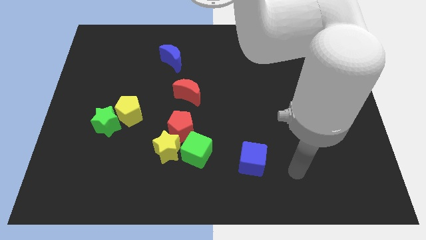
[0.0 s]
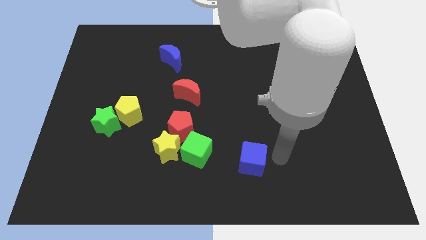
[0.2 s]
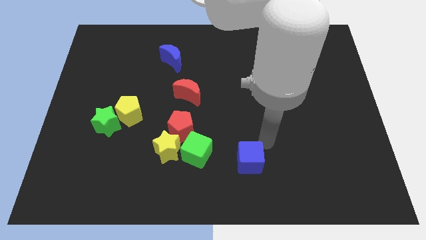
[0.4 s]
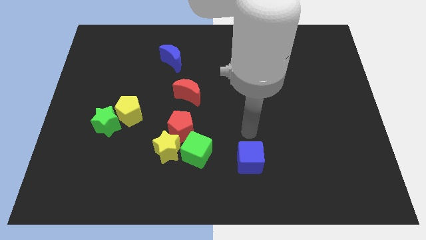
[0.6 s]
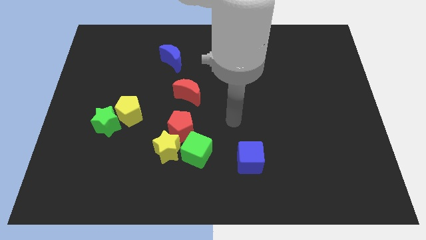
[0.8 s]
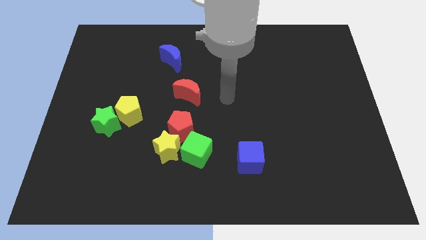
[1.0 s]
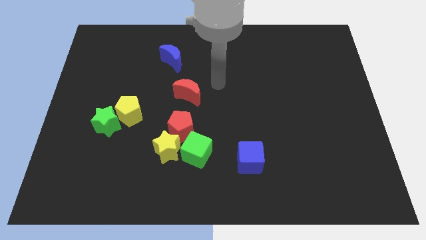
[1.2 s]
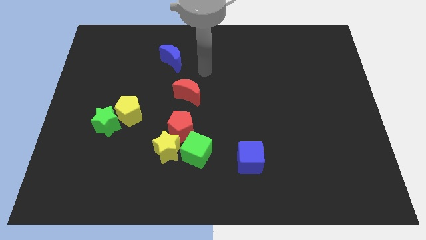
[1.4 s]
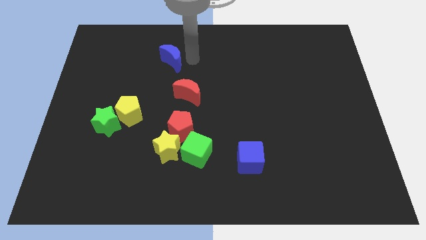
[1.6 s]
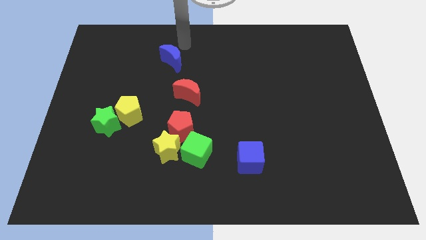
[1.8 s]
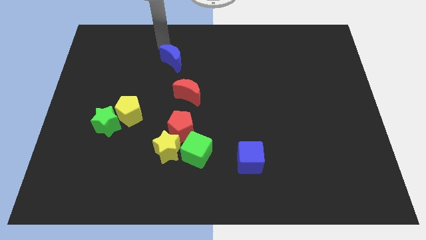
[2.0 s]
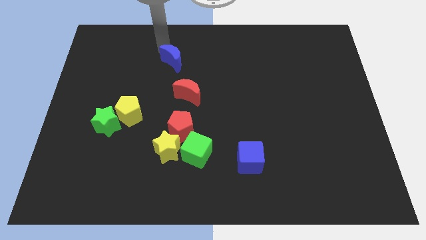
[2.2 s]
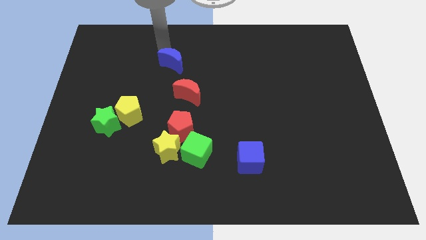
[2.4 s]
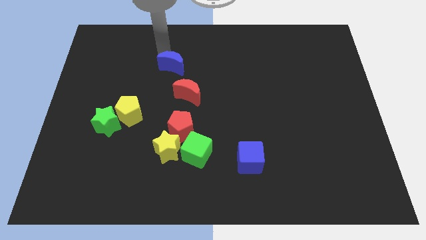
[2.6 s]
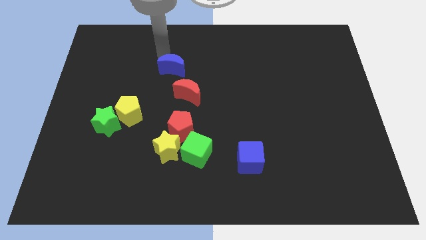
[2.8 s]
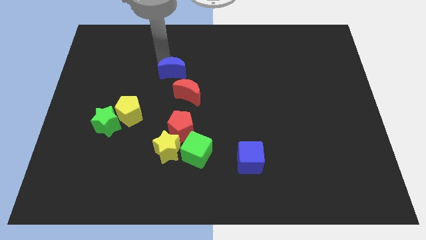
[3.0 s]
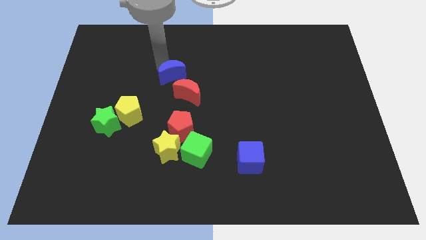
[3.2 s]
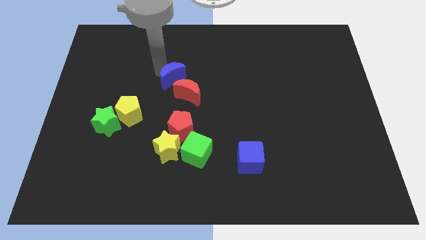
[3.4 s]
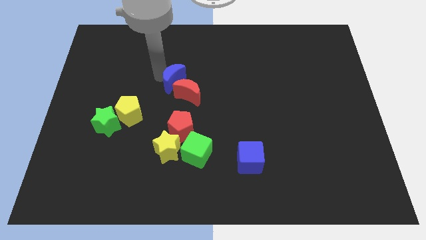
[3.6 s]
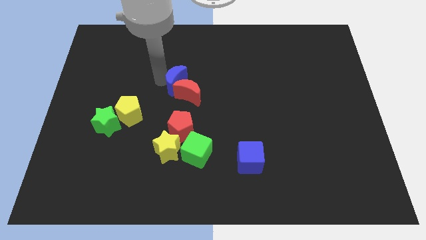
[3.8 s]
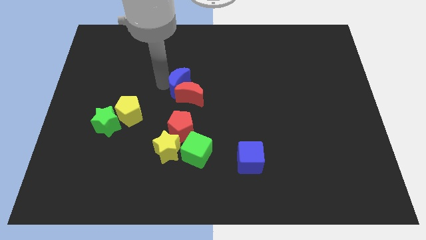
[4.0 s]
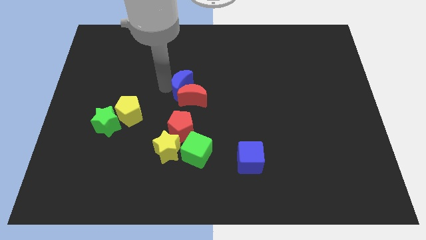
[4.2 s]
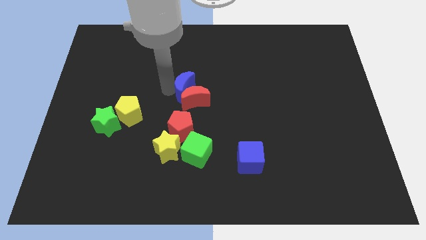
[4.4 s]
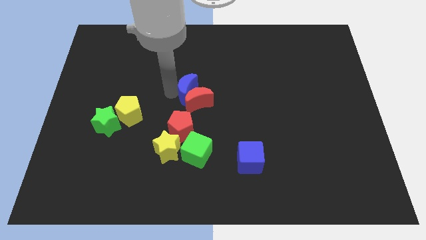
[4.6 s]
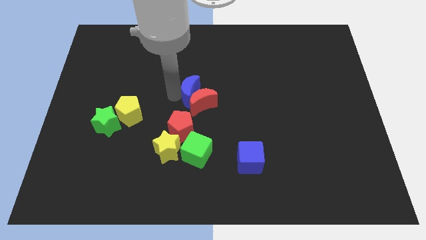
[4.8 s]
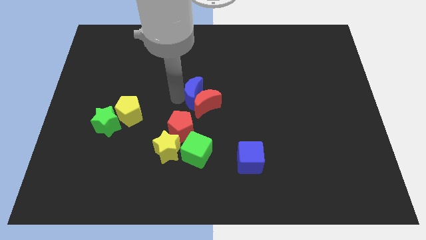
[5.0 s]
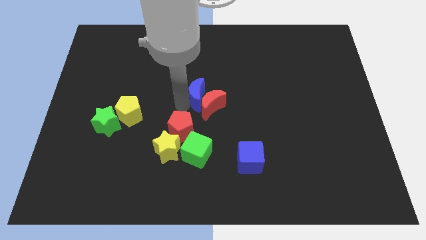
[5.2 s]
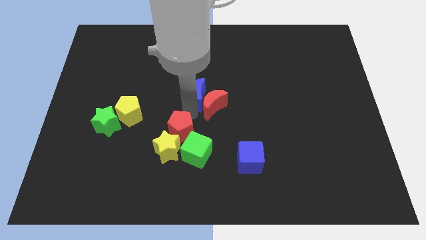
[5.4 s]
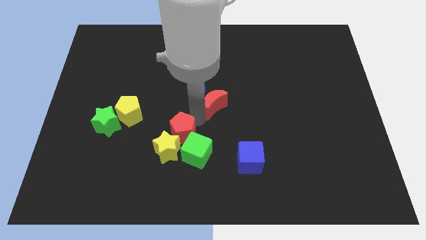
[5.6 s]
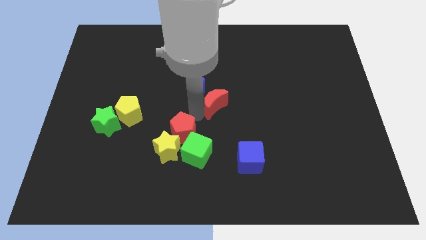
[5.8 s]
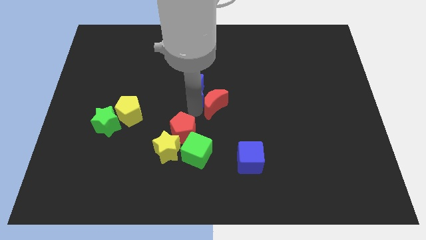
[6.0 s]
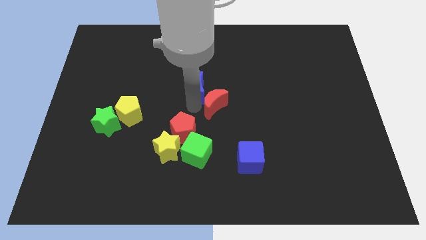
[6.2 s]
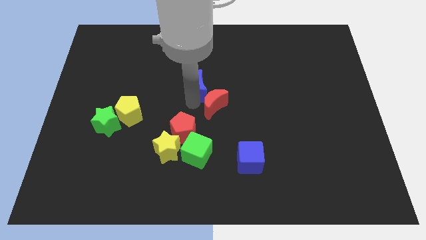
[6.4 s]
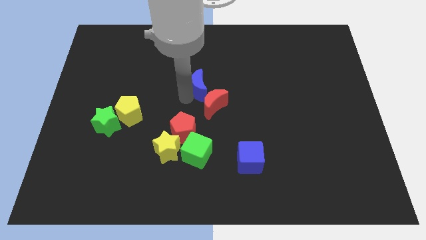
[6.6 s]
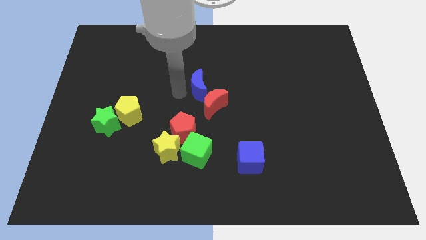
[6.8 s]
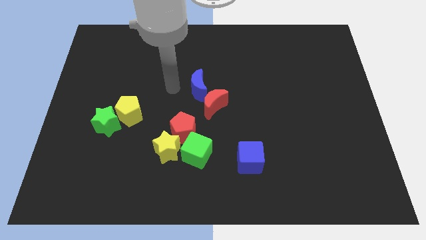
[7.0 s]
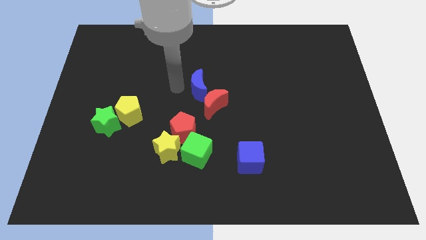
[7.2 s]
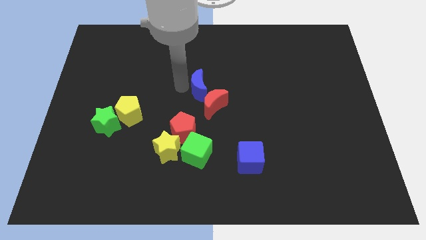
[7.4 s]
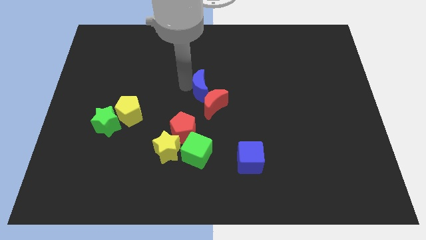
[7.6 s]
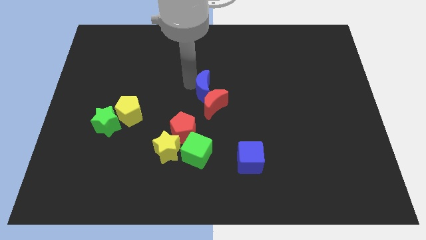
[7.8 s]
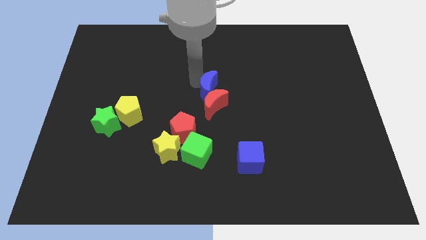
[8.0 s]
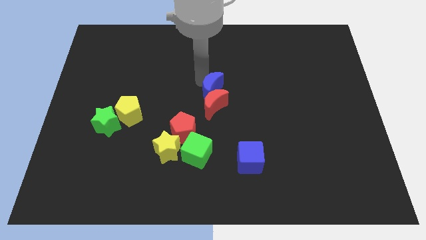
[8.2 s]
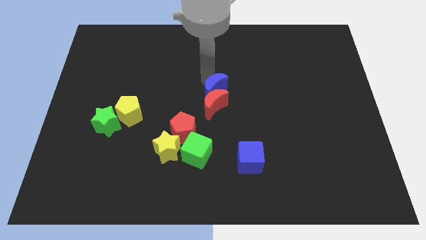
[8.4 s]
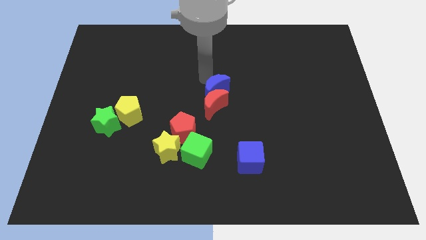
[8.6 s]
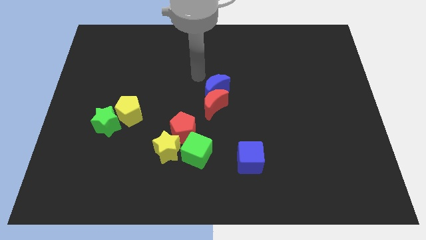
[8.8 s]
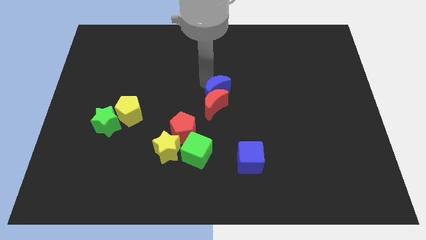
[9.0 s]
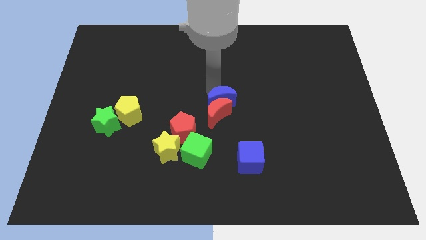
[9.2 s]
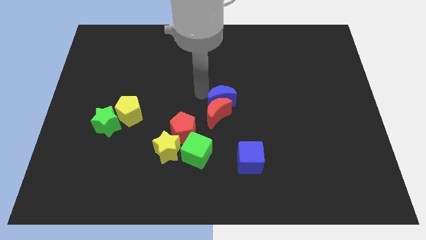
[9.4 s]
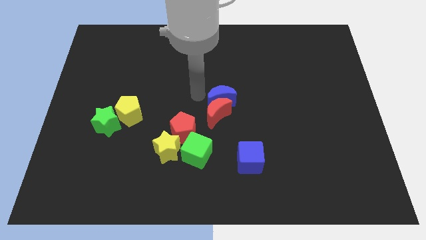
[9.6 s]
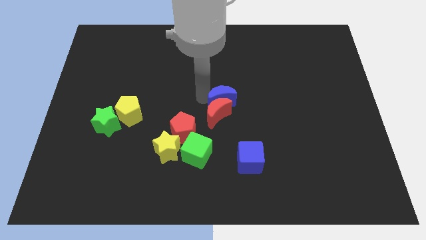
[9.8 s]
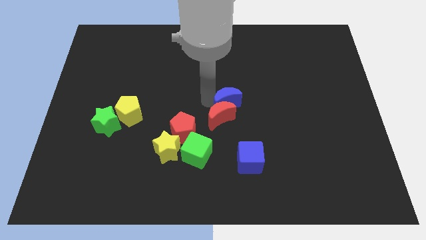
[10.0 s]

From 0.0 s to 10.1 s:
slide the blue moon downwards and right

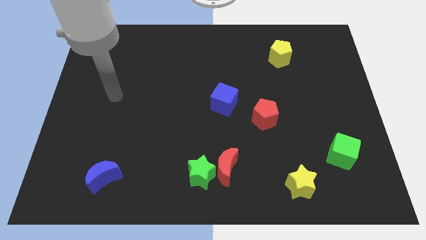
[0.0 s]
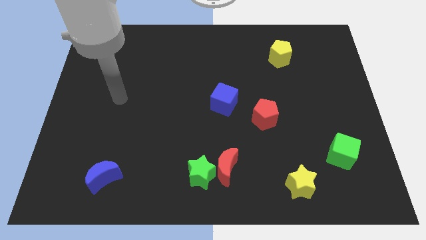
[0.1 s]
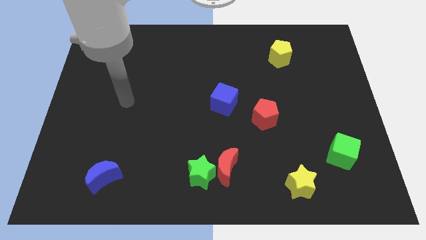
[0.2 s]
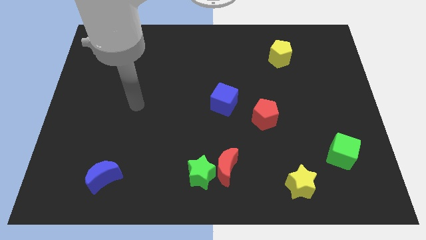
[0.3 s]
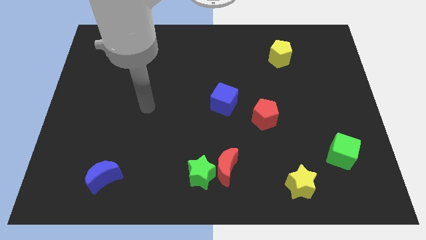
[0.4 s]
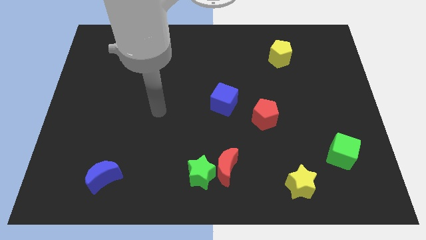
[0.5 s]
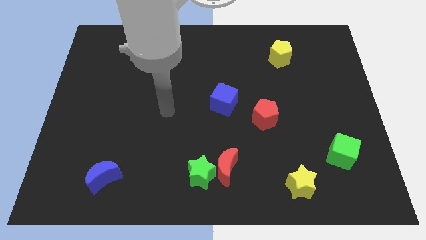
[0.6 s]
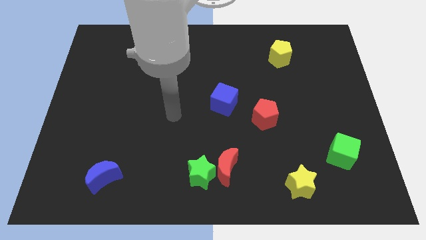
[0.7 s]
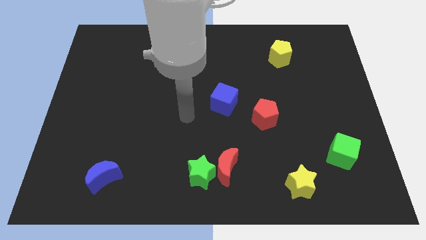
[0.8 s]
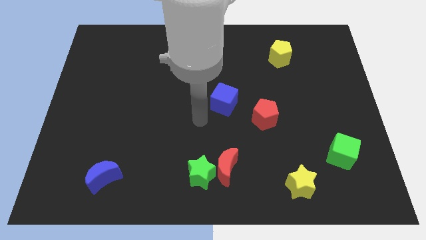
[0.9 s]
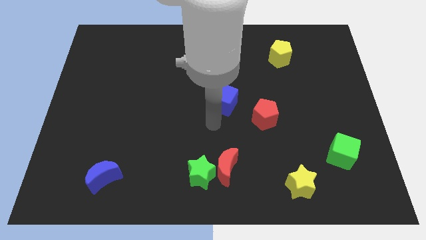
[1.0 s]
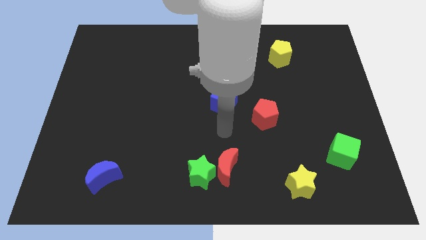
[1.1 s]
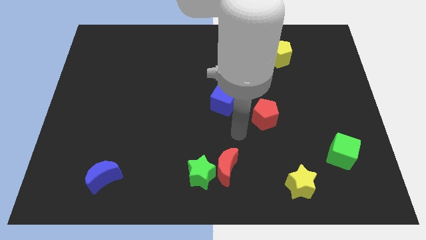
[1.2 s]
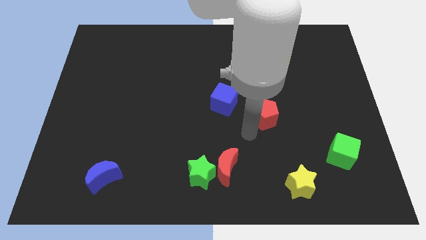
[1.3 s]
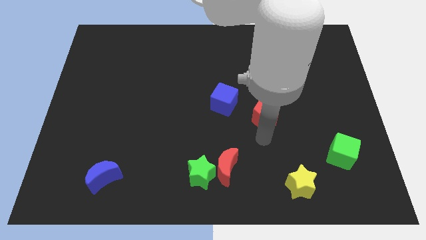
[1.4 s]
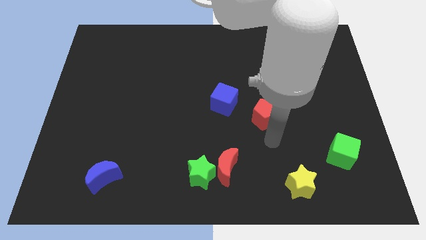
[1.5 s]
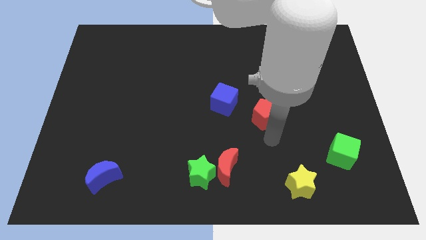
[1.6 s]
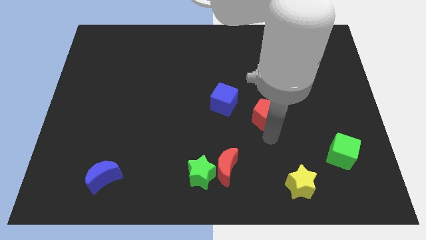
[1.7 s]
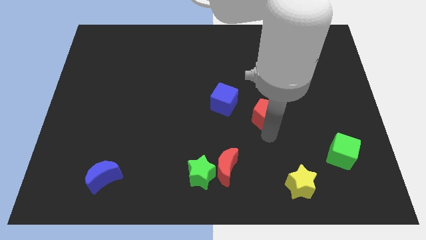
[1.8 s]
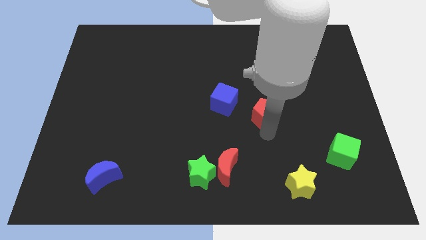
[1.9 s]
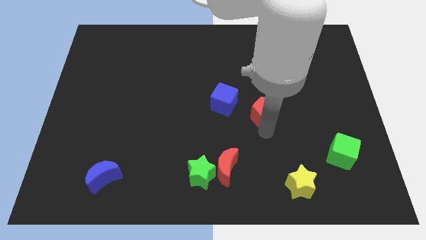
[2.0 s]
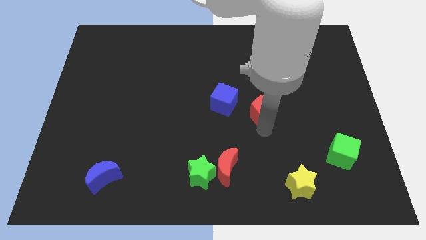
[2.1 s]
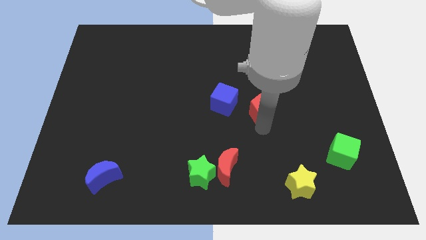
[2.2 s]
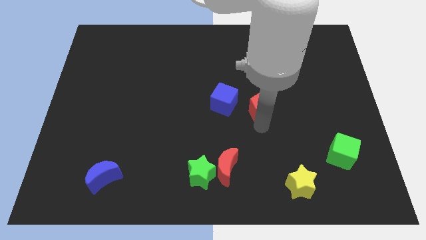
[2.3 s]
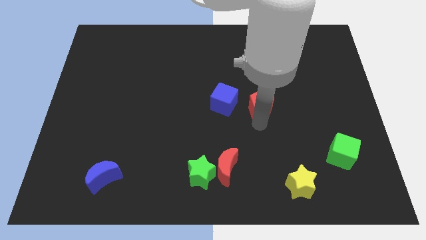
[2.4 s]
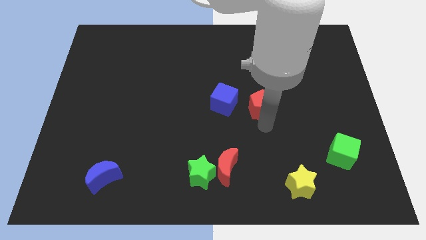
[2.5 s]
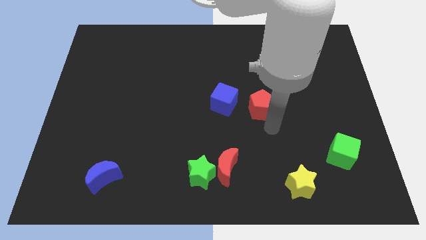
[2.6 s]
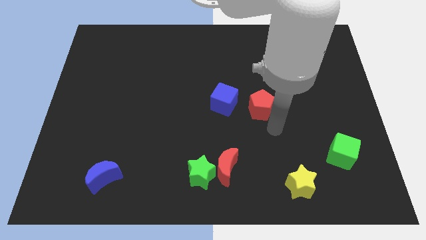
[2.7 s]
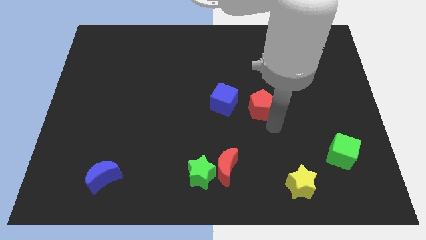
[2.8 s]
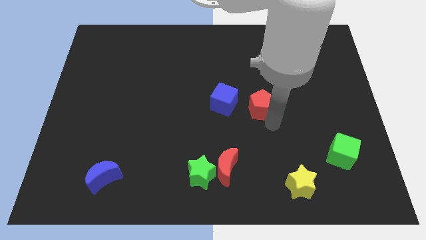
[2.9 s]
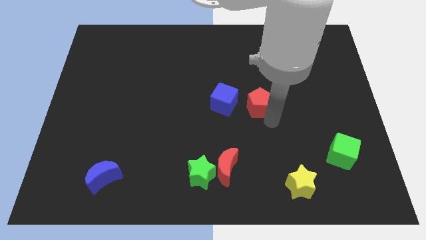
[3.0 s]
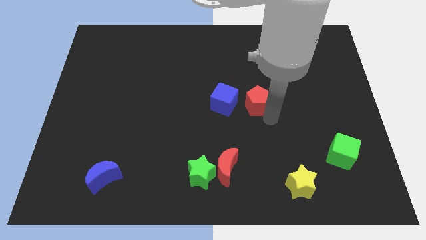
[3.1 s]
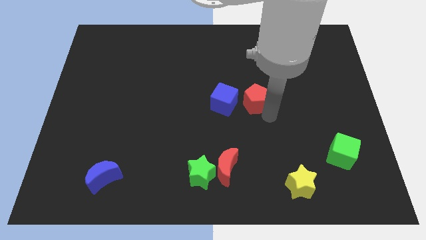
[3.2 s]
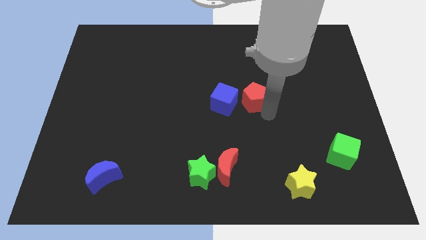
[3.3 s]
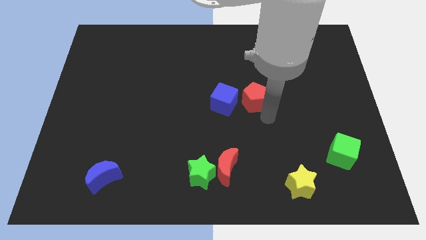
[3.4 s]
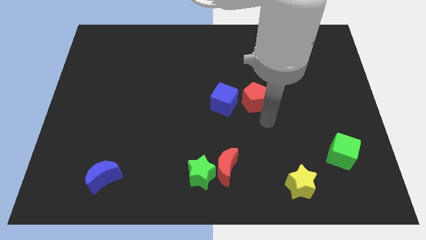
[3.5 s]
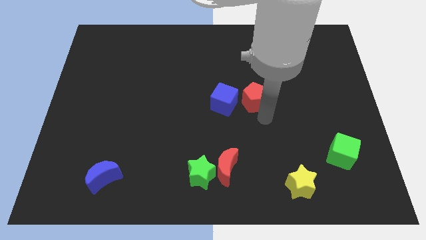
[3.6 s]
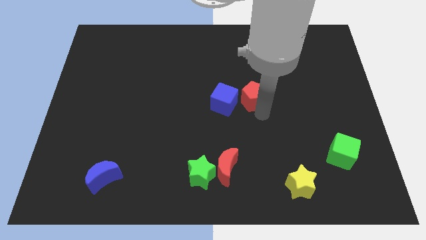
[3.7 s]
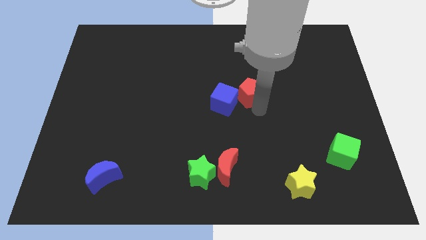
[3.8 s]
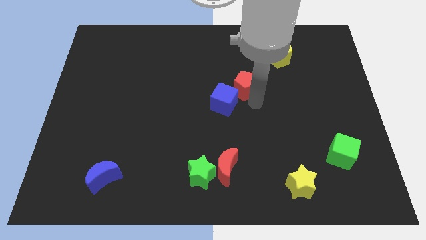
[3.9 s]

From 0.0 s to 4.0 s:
move the red pentagon a little bit upwards and then left
